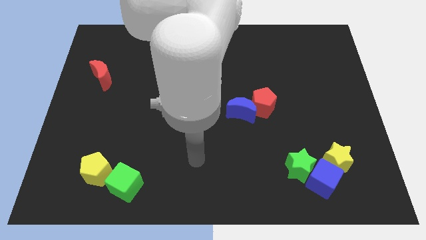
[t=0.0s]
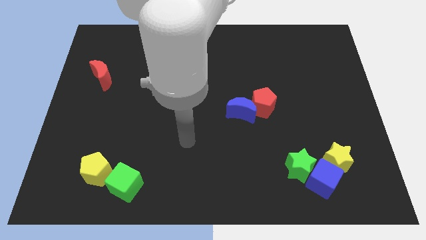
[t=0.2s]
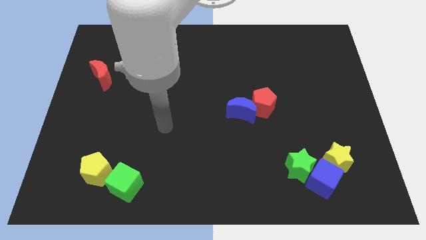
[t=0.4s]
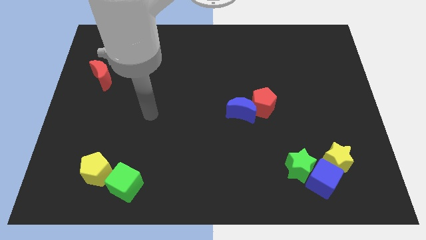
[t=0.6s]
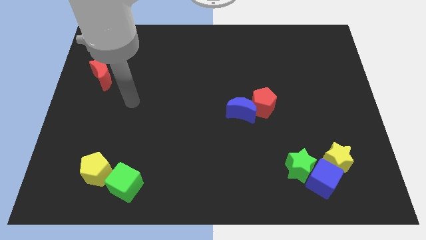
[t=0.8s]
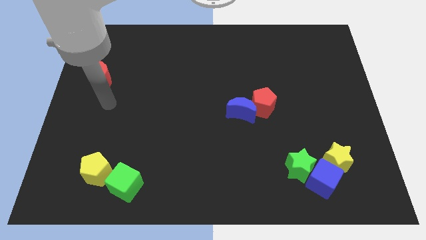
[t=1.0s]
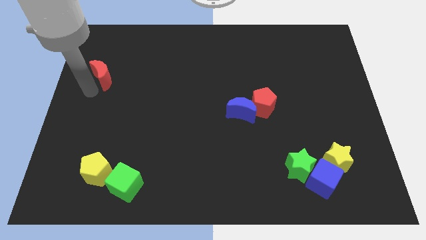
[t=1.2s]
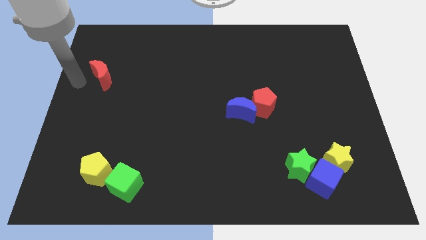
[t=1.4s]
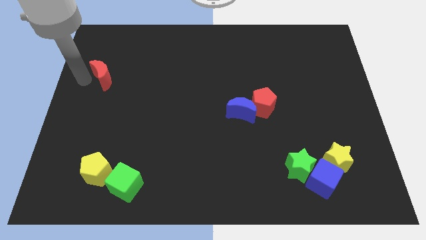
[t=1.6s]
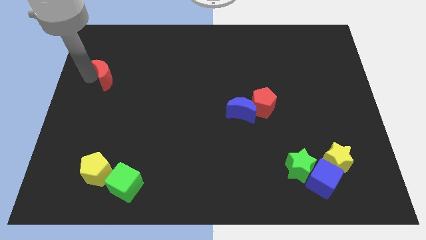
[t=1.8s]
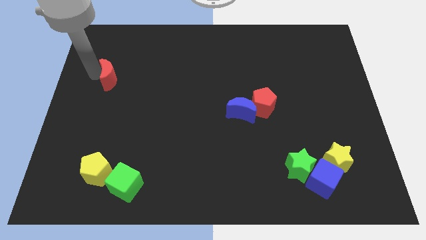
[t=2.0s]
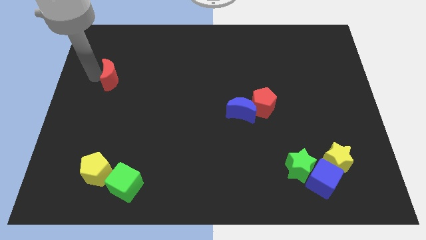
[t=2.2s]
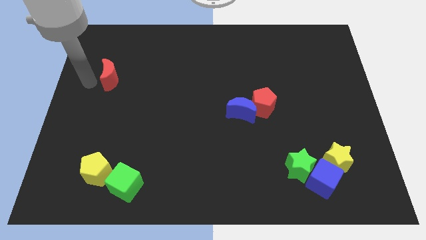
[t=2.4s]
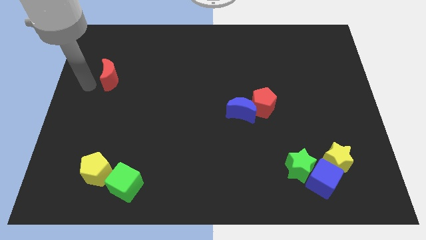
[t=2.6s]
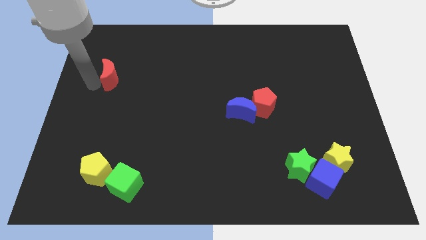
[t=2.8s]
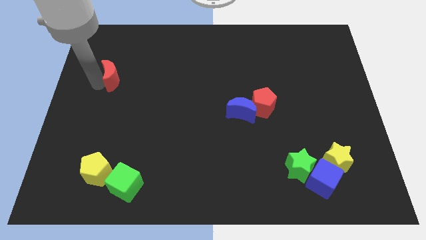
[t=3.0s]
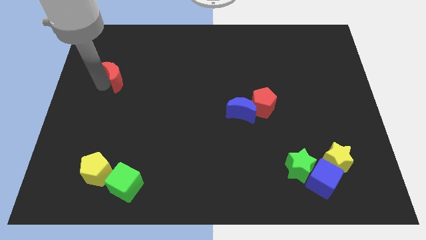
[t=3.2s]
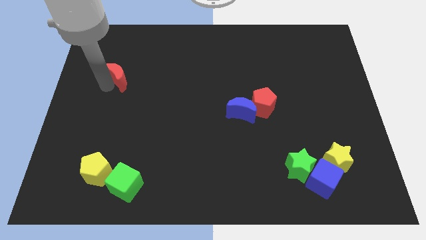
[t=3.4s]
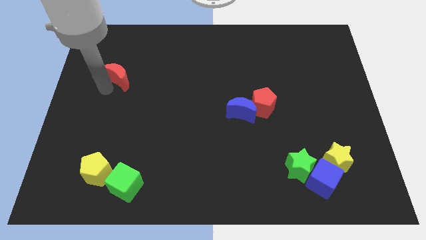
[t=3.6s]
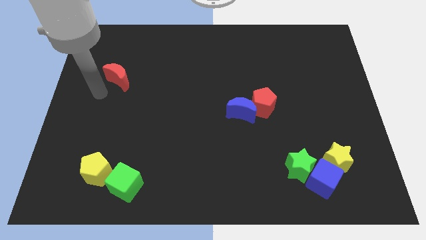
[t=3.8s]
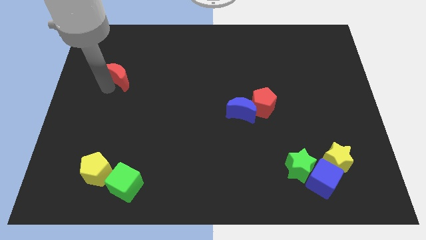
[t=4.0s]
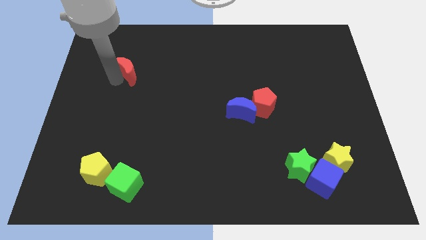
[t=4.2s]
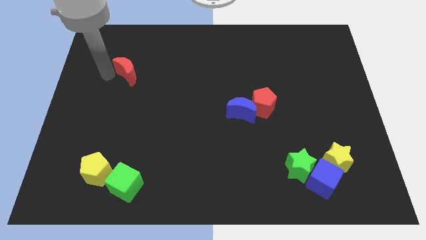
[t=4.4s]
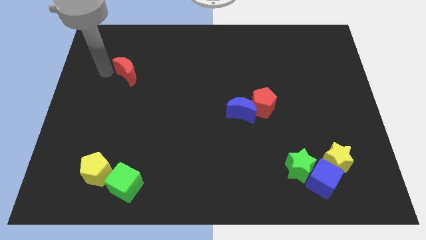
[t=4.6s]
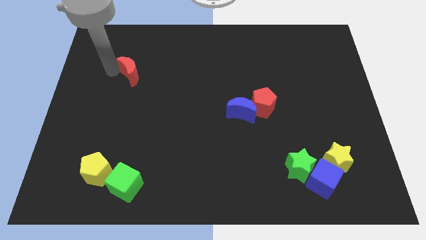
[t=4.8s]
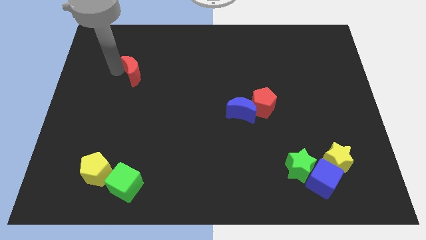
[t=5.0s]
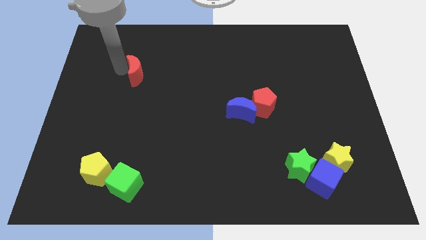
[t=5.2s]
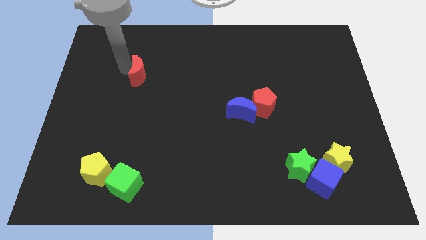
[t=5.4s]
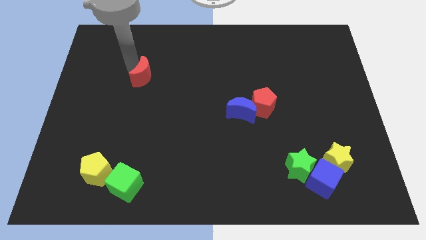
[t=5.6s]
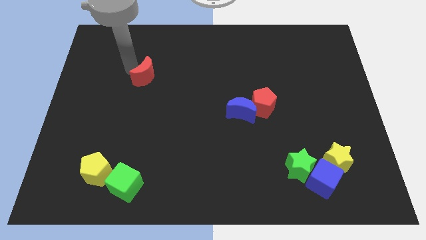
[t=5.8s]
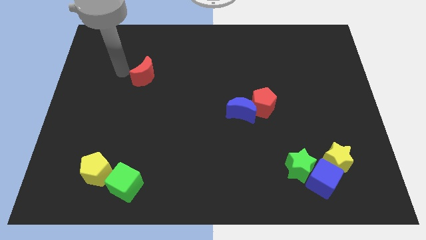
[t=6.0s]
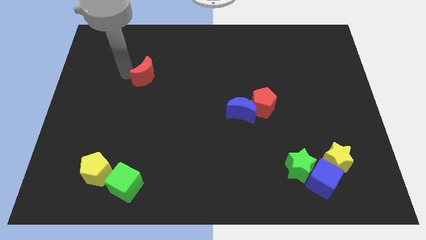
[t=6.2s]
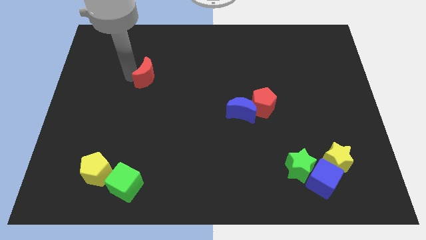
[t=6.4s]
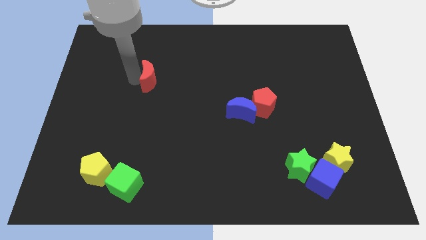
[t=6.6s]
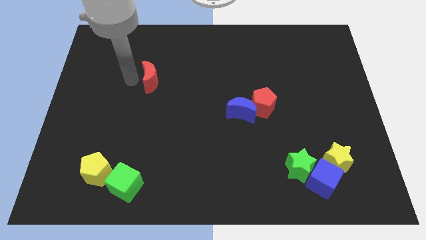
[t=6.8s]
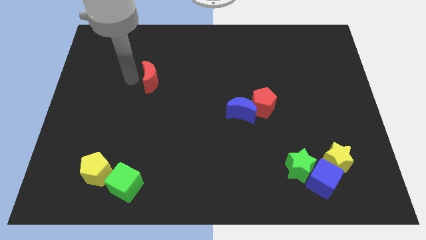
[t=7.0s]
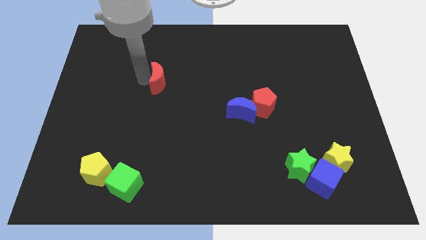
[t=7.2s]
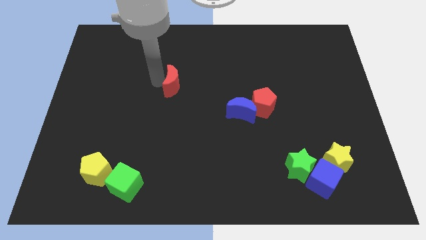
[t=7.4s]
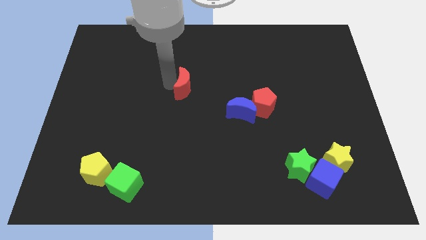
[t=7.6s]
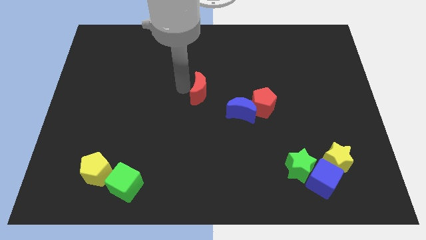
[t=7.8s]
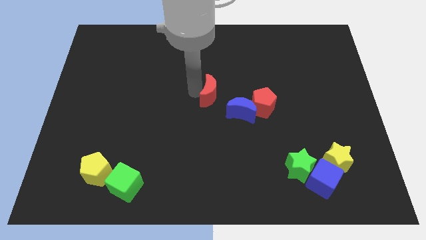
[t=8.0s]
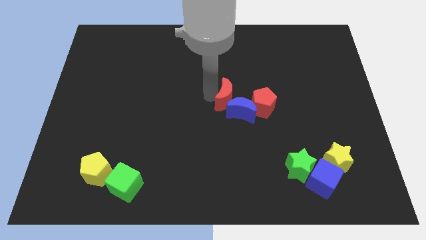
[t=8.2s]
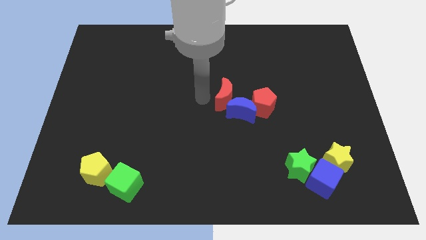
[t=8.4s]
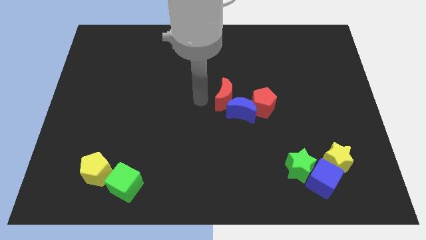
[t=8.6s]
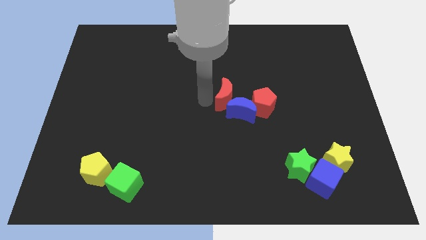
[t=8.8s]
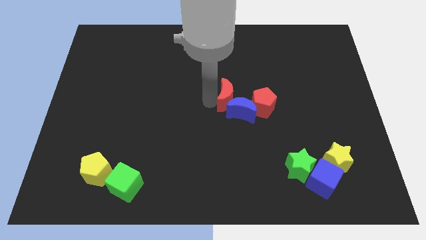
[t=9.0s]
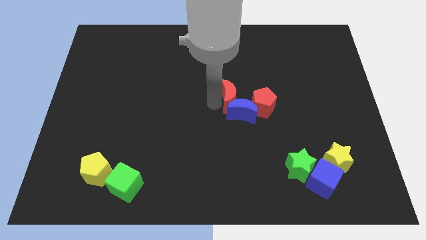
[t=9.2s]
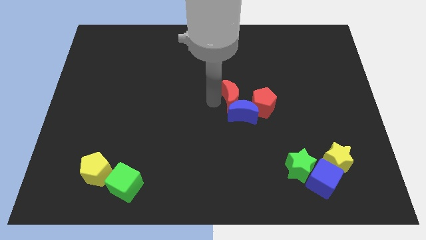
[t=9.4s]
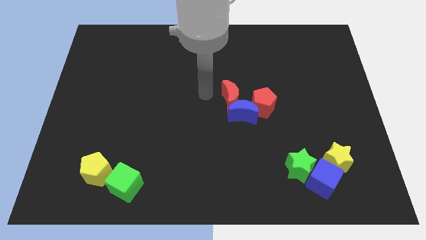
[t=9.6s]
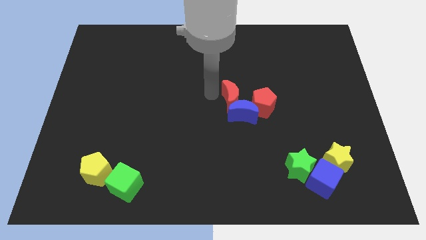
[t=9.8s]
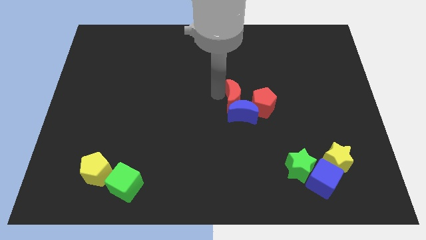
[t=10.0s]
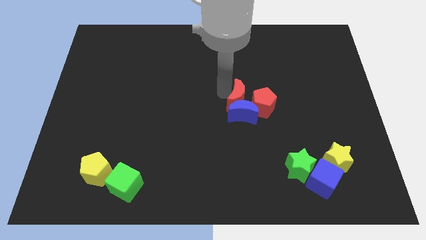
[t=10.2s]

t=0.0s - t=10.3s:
move the red moon close to the red pentagon

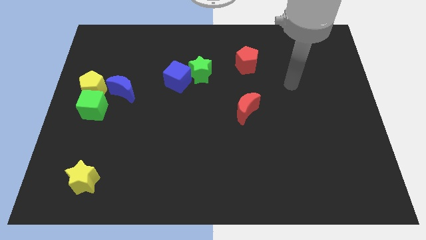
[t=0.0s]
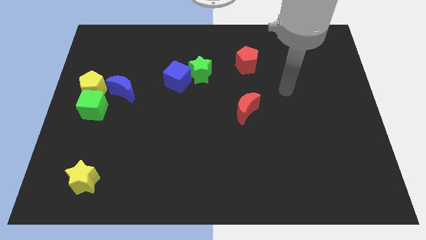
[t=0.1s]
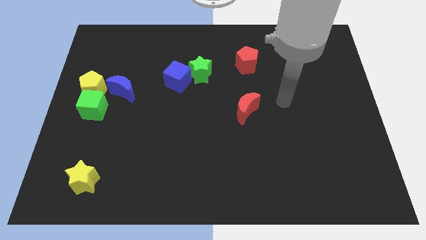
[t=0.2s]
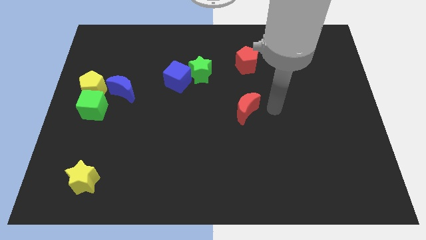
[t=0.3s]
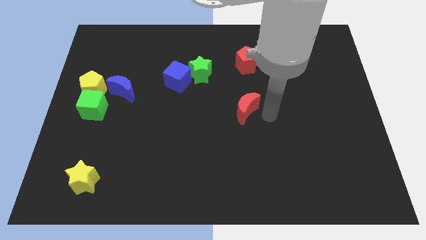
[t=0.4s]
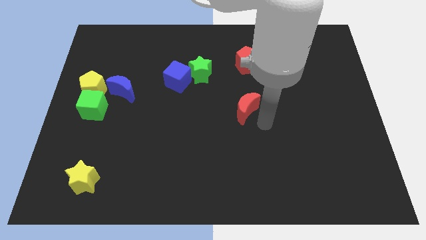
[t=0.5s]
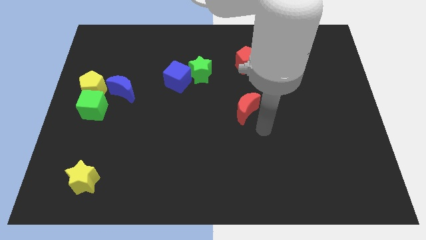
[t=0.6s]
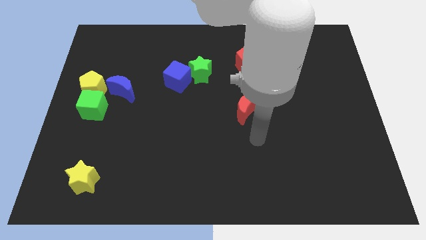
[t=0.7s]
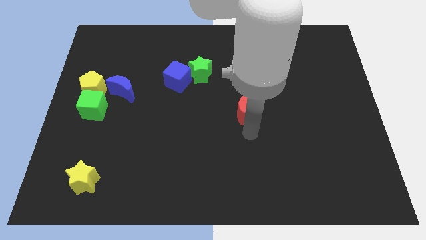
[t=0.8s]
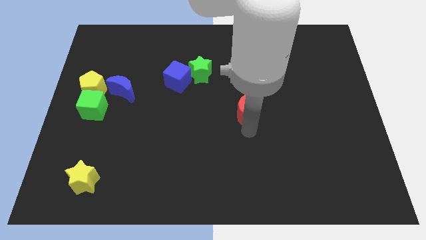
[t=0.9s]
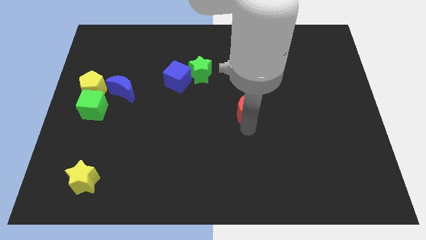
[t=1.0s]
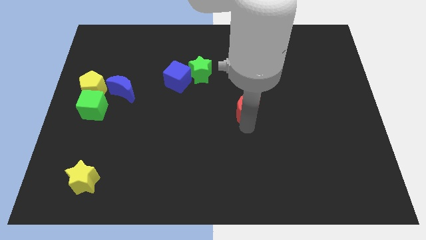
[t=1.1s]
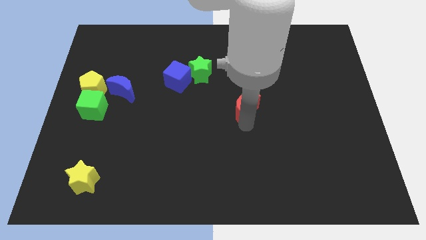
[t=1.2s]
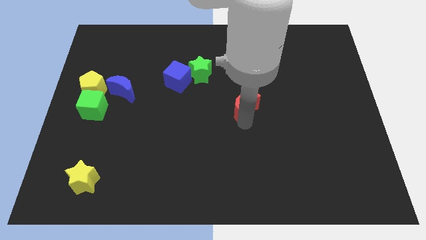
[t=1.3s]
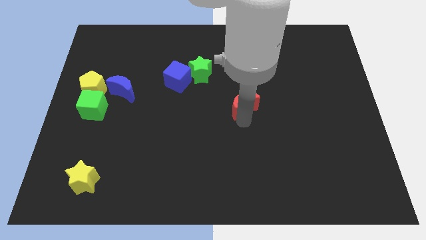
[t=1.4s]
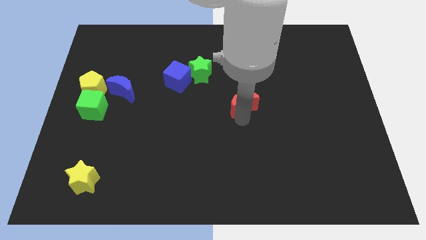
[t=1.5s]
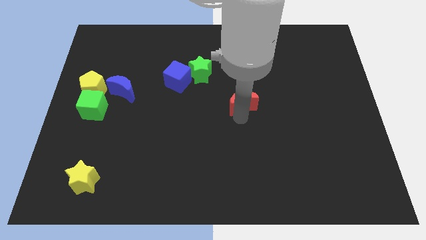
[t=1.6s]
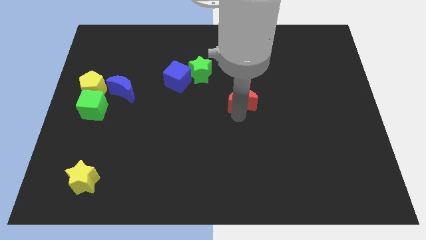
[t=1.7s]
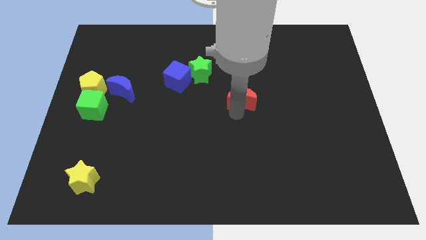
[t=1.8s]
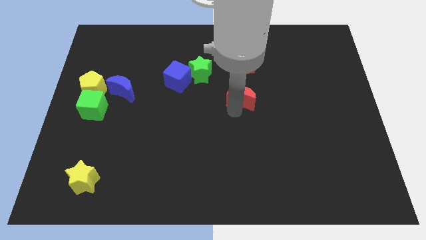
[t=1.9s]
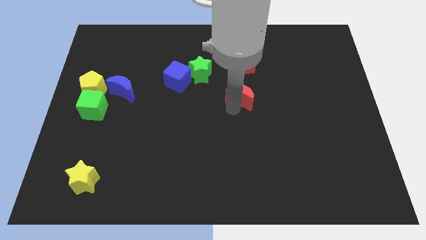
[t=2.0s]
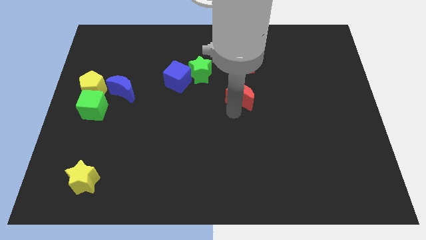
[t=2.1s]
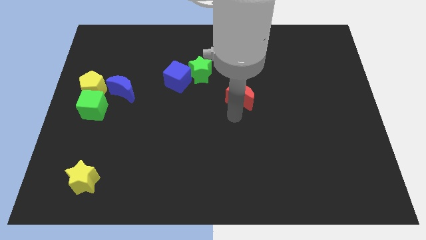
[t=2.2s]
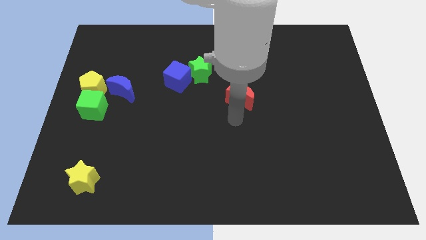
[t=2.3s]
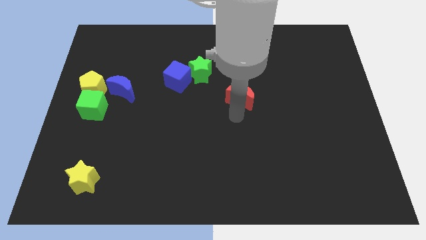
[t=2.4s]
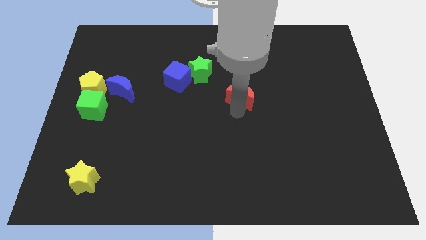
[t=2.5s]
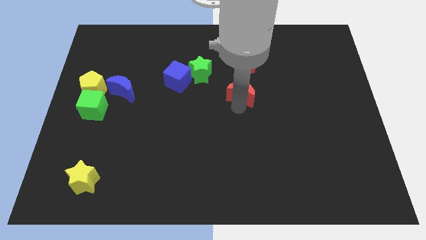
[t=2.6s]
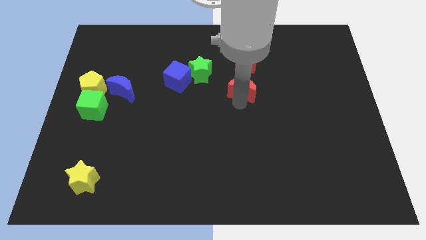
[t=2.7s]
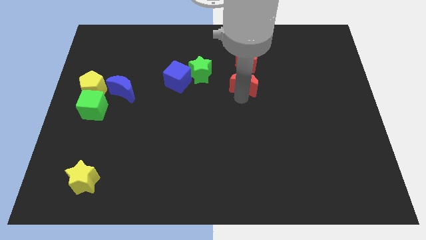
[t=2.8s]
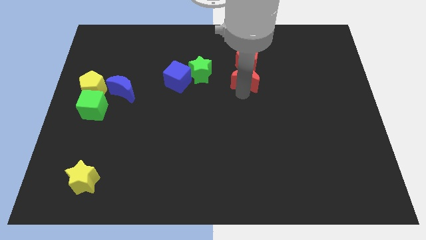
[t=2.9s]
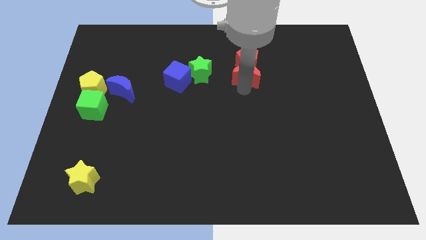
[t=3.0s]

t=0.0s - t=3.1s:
push the red moon to the red pentagon
